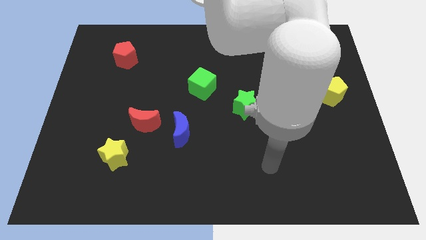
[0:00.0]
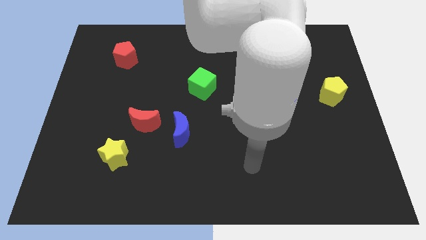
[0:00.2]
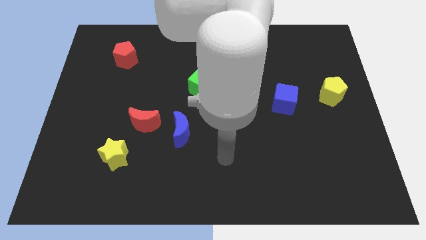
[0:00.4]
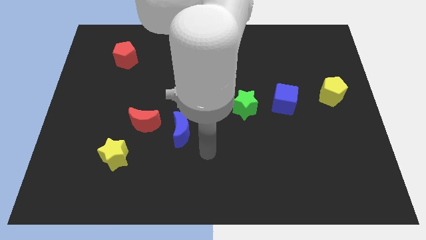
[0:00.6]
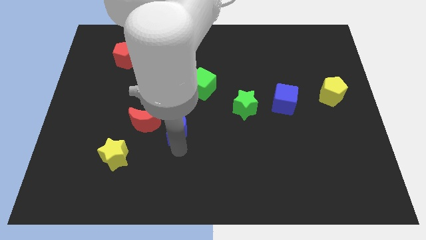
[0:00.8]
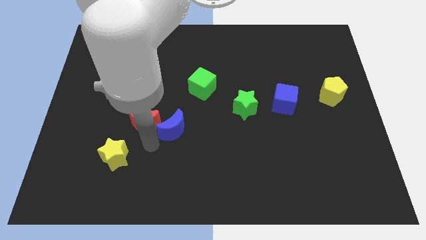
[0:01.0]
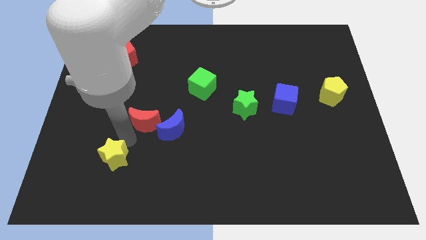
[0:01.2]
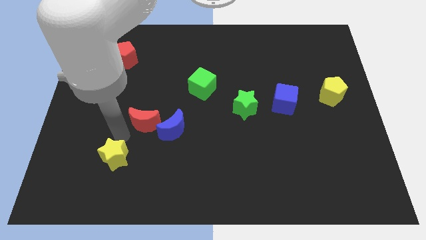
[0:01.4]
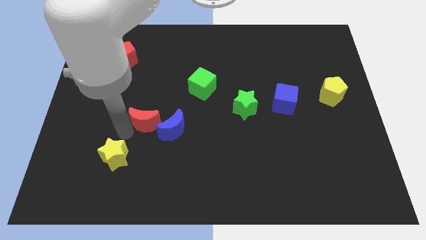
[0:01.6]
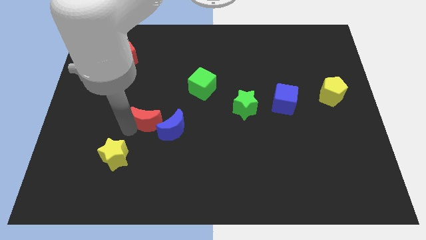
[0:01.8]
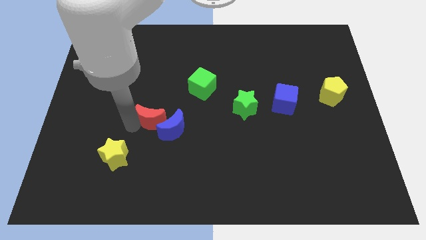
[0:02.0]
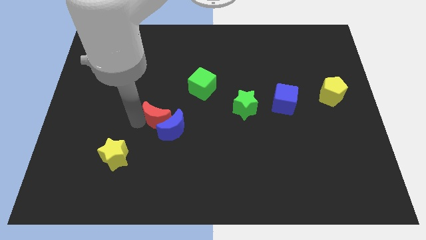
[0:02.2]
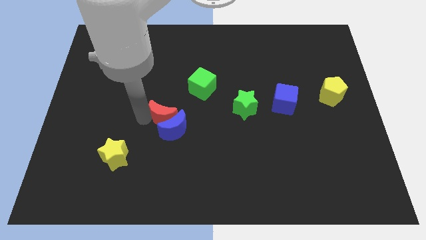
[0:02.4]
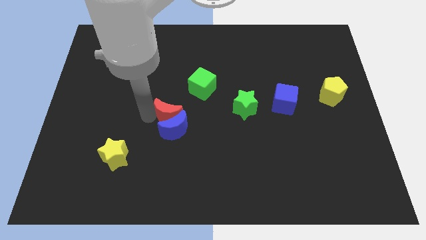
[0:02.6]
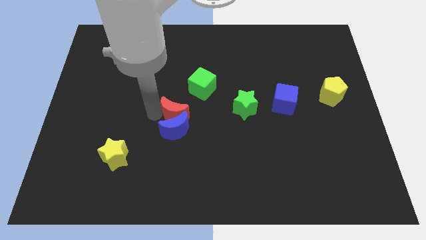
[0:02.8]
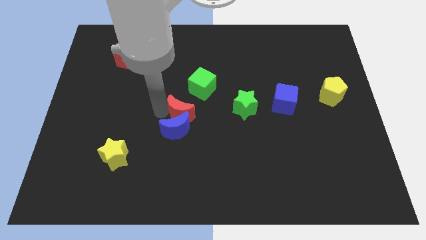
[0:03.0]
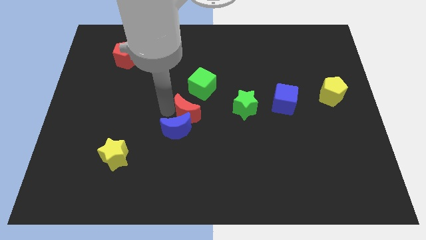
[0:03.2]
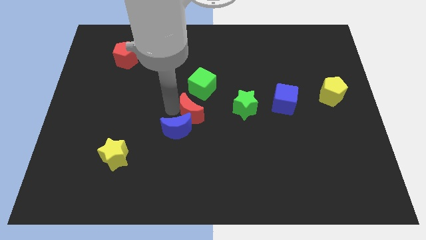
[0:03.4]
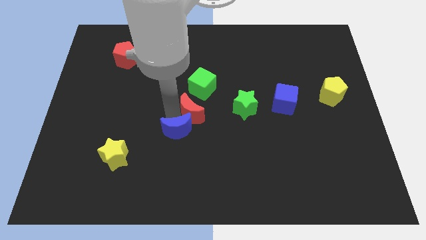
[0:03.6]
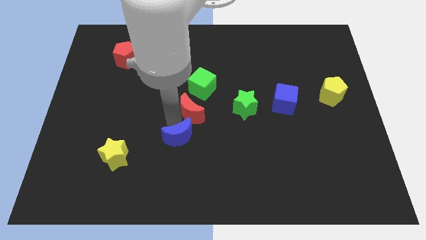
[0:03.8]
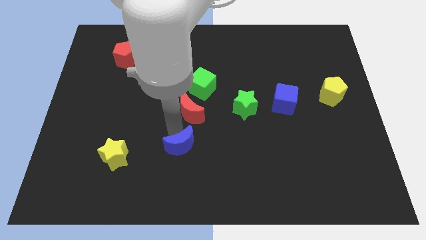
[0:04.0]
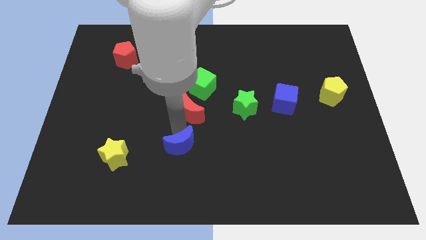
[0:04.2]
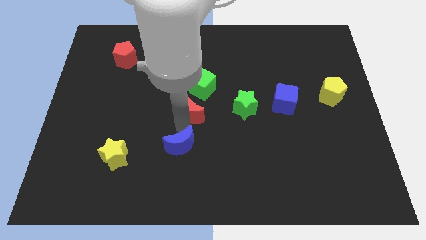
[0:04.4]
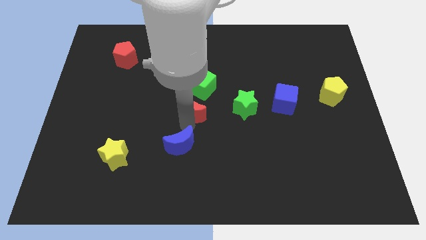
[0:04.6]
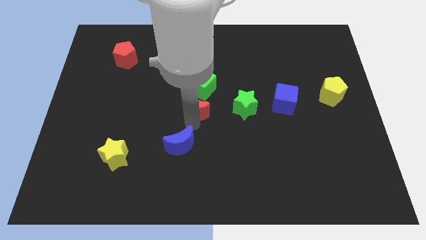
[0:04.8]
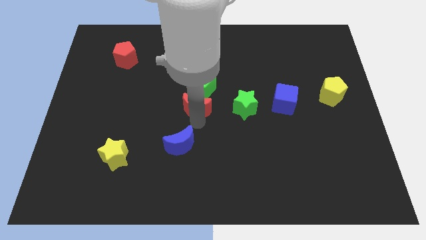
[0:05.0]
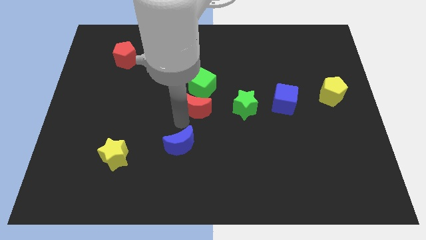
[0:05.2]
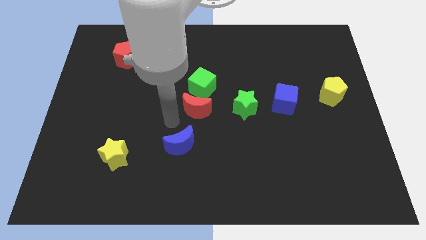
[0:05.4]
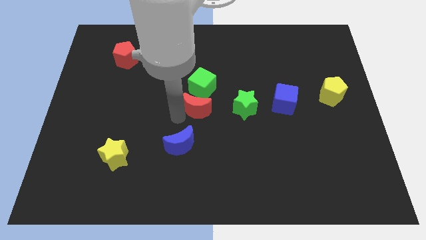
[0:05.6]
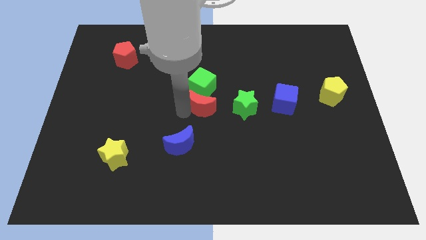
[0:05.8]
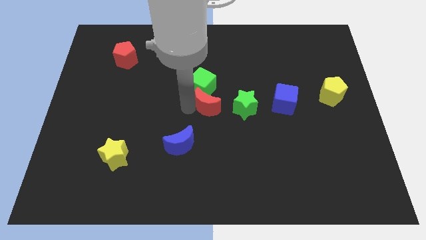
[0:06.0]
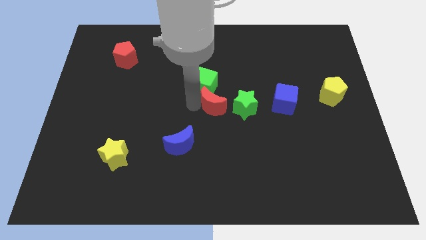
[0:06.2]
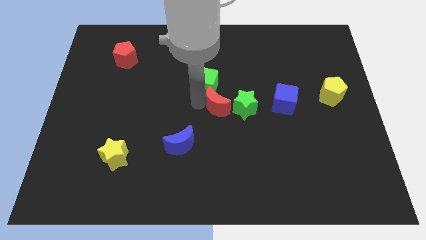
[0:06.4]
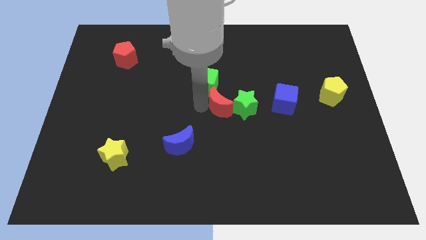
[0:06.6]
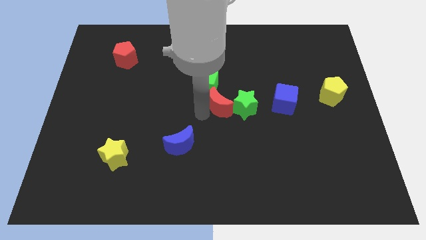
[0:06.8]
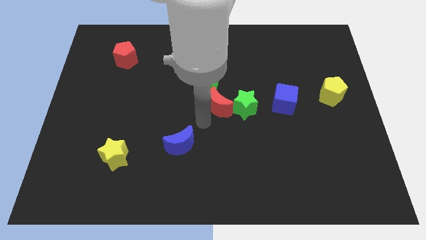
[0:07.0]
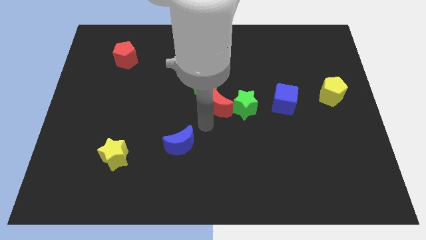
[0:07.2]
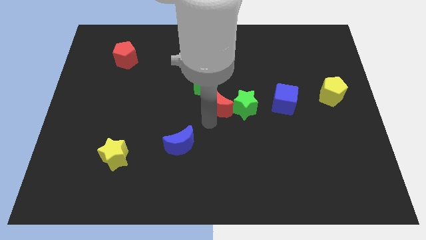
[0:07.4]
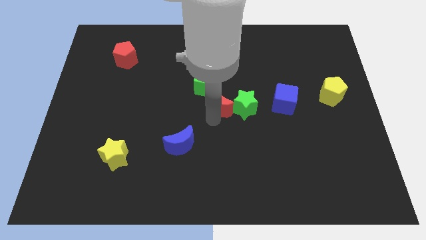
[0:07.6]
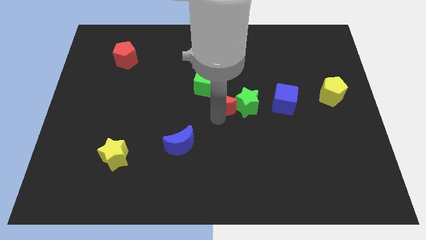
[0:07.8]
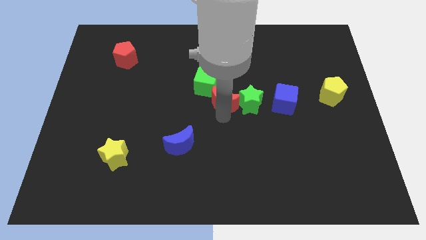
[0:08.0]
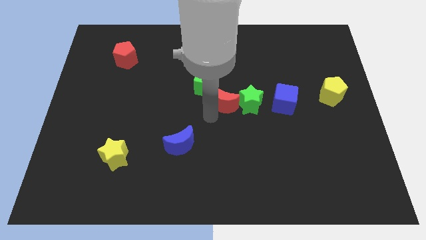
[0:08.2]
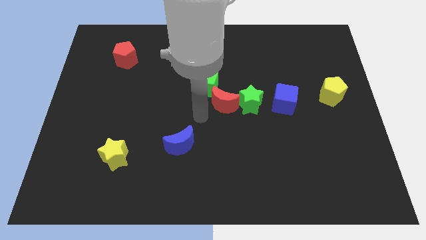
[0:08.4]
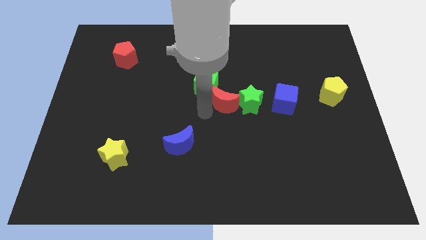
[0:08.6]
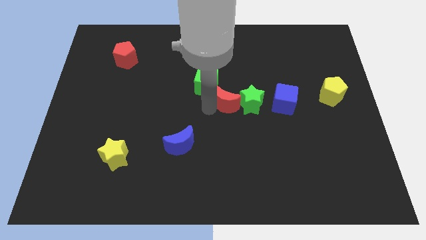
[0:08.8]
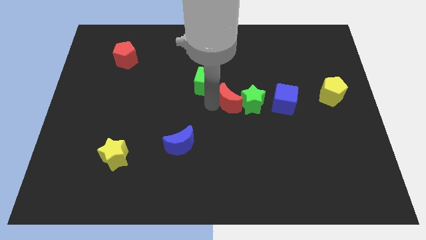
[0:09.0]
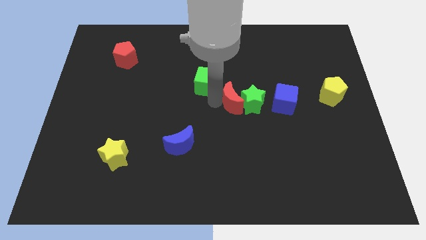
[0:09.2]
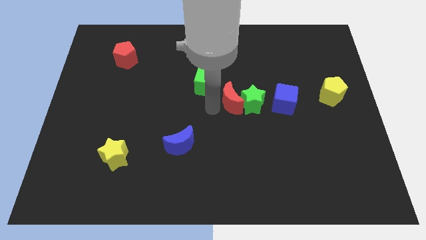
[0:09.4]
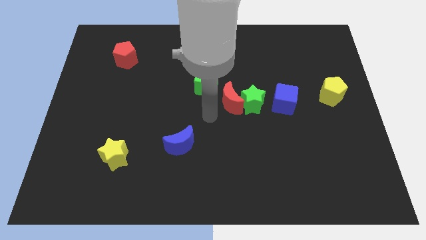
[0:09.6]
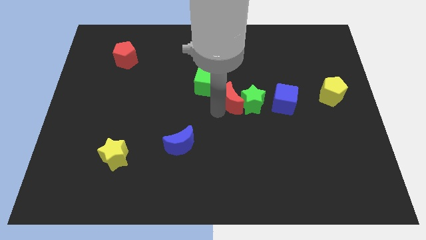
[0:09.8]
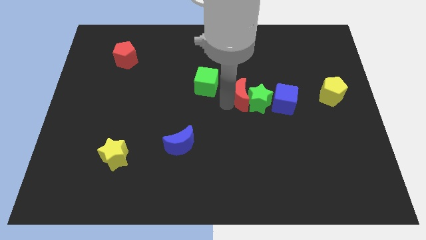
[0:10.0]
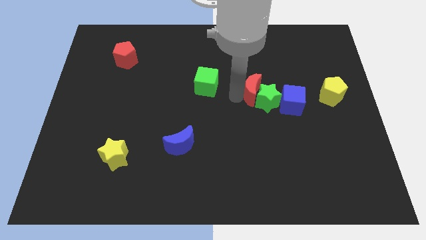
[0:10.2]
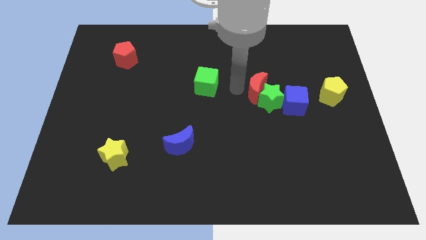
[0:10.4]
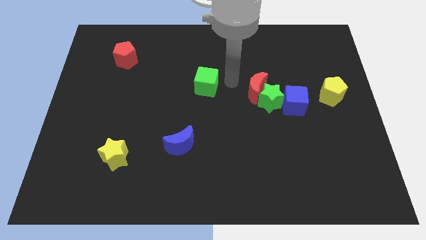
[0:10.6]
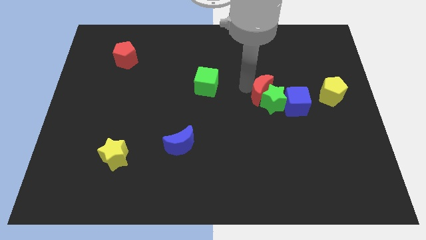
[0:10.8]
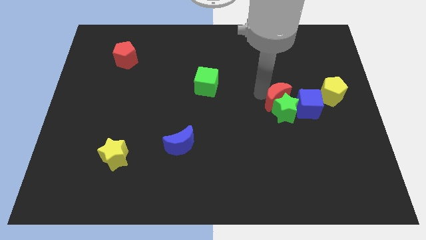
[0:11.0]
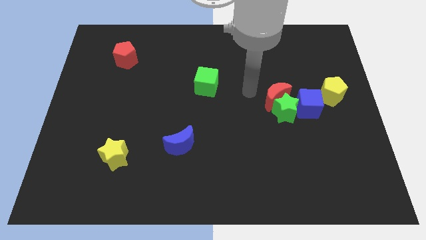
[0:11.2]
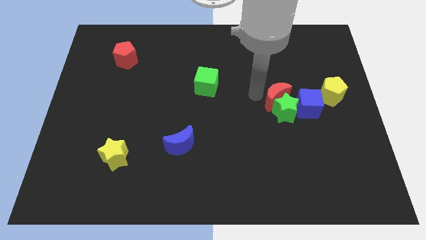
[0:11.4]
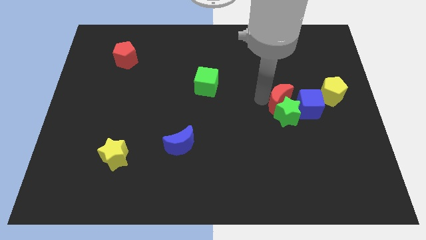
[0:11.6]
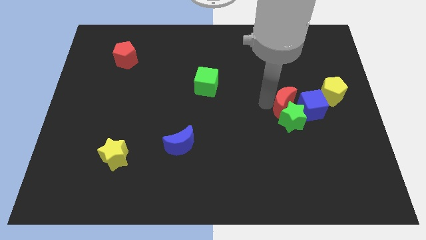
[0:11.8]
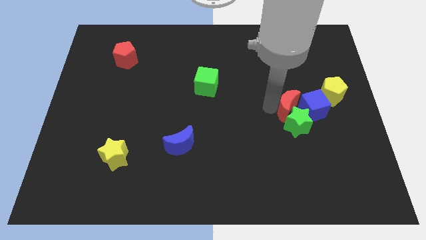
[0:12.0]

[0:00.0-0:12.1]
move the red moon to the blue cube

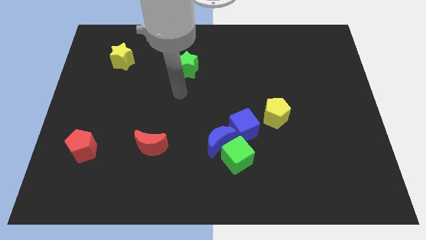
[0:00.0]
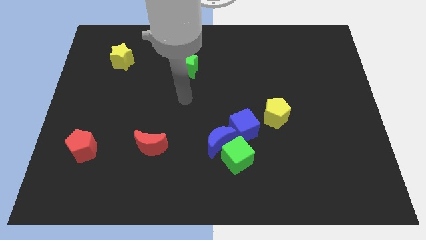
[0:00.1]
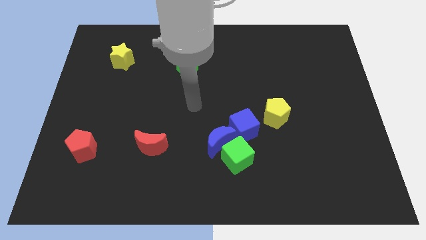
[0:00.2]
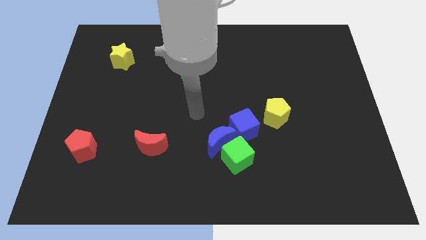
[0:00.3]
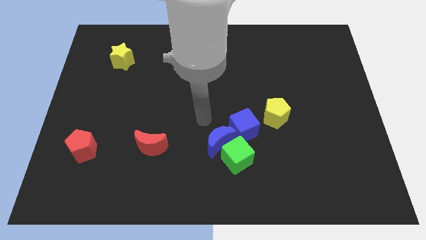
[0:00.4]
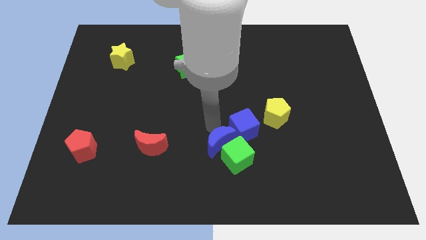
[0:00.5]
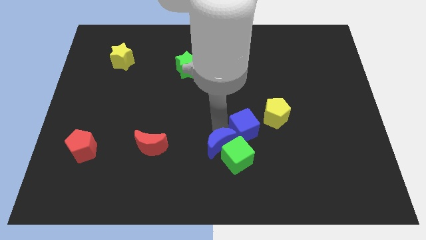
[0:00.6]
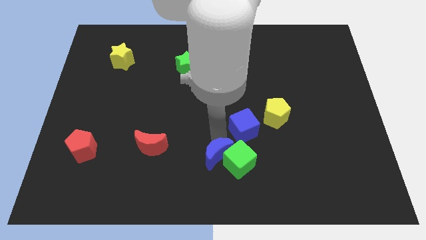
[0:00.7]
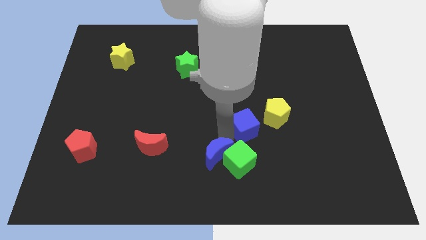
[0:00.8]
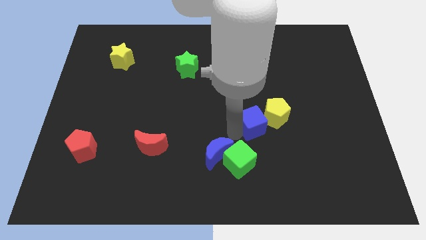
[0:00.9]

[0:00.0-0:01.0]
push the blue cube next to the yellow pentagon
